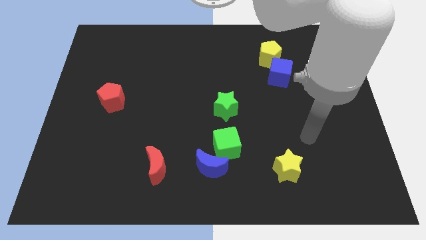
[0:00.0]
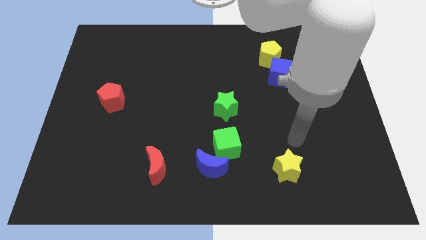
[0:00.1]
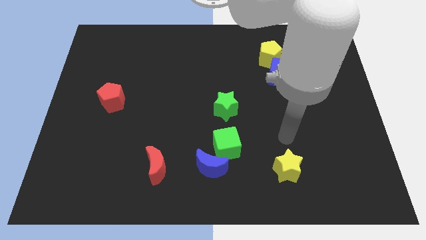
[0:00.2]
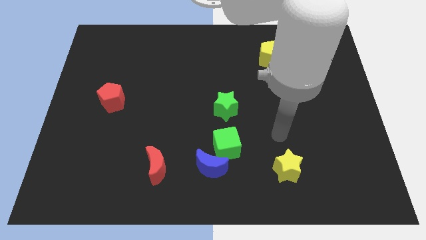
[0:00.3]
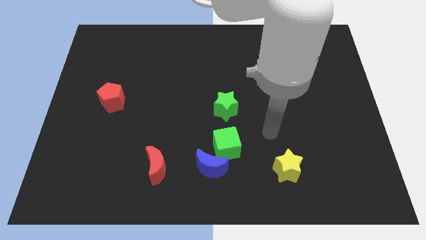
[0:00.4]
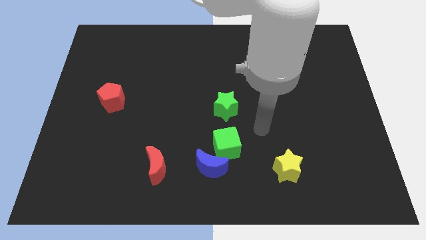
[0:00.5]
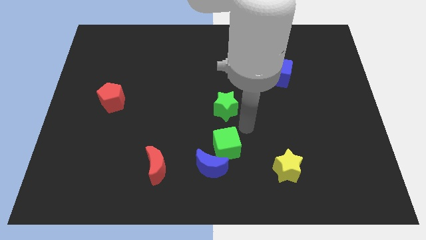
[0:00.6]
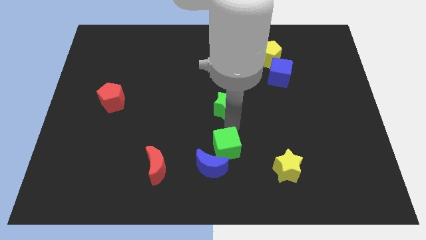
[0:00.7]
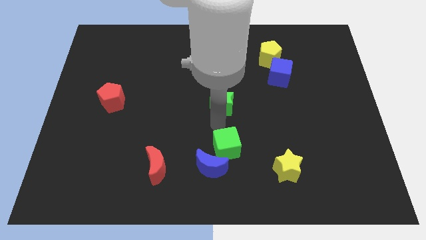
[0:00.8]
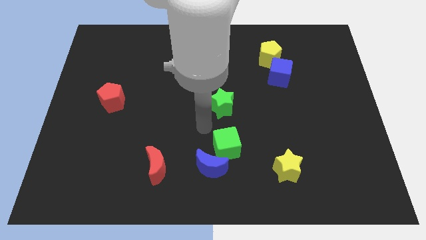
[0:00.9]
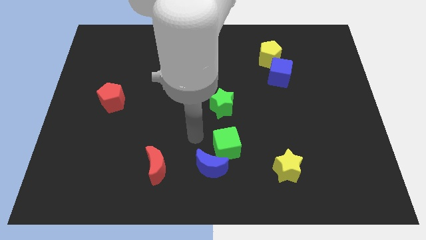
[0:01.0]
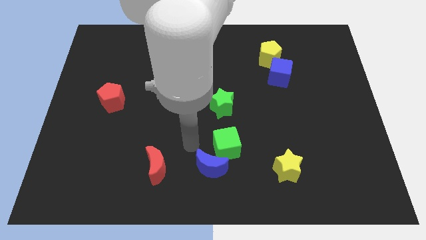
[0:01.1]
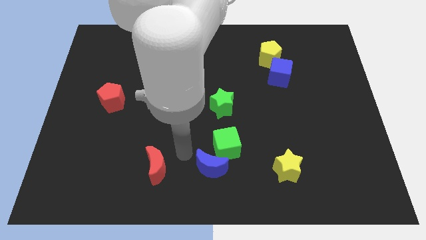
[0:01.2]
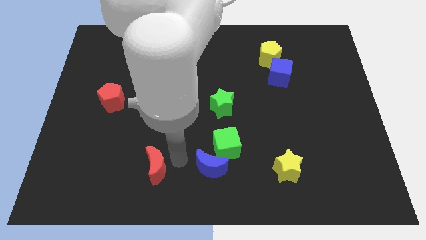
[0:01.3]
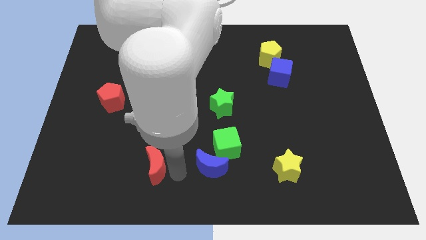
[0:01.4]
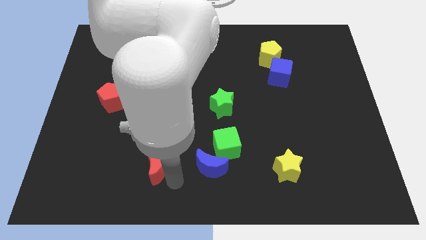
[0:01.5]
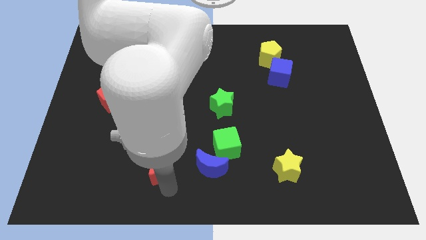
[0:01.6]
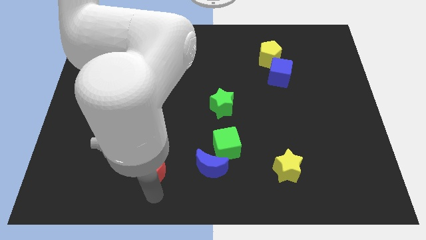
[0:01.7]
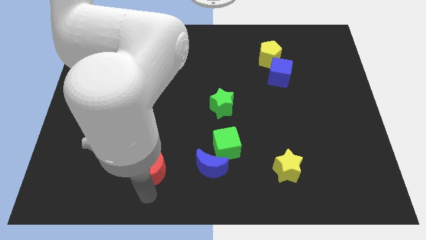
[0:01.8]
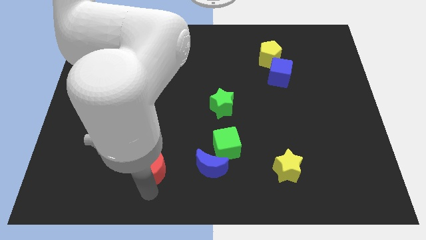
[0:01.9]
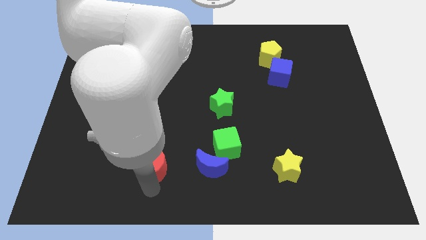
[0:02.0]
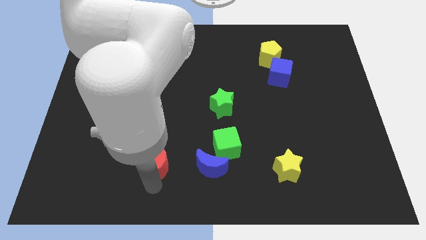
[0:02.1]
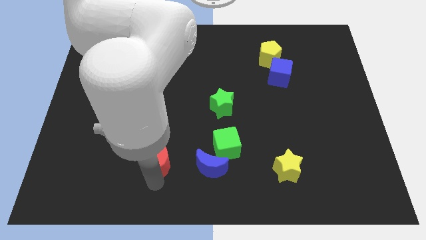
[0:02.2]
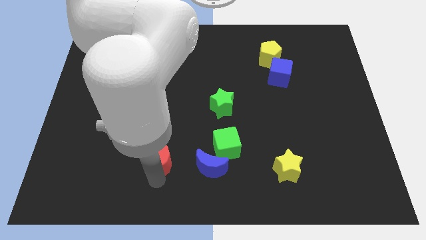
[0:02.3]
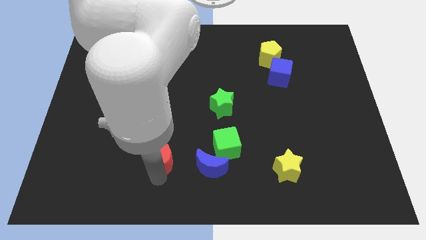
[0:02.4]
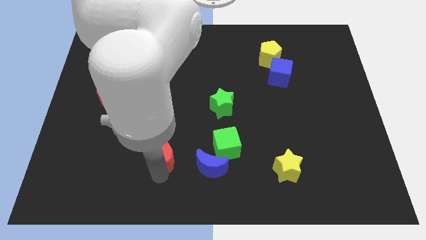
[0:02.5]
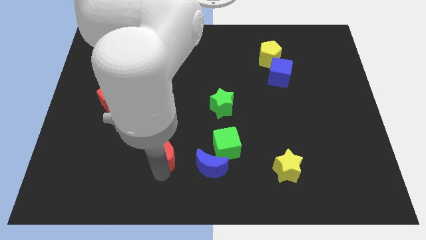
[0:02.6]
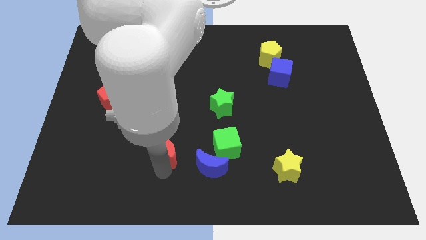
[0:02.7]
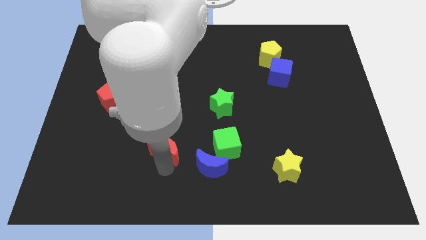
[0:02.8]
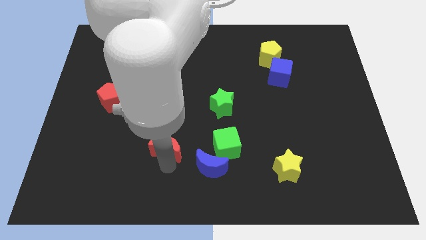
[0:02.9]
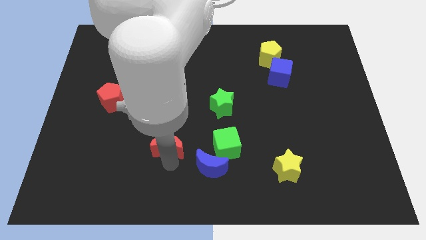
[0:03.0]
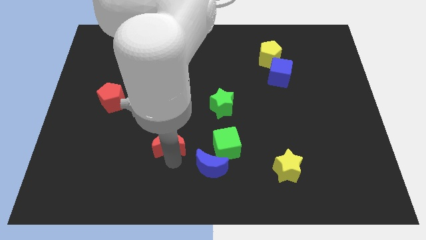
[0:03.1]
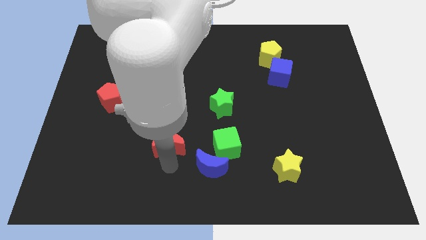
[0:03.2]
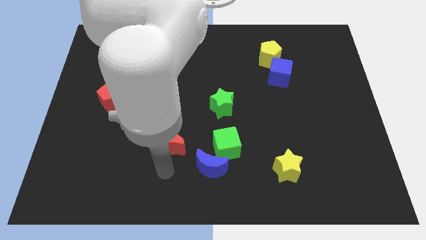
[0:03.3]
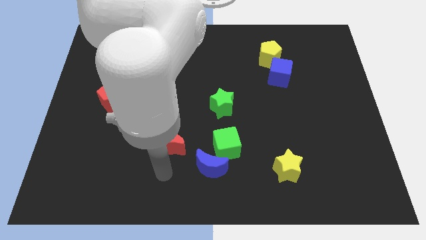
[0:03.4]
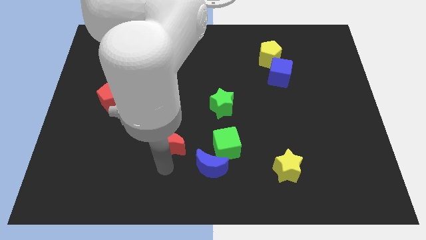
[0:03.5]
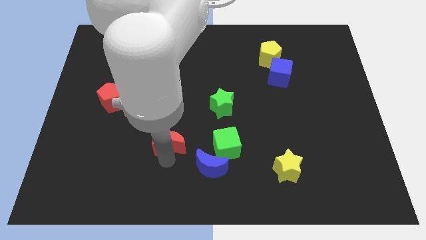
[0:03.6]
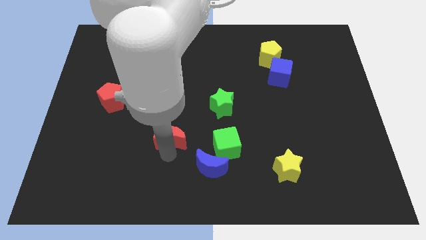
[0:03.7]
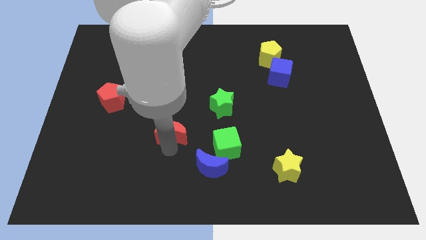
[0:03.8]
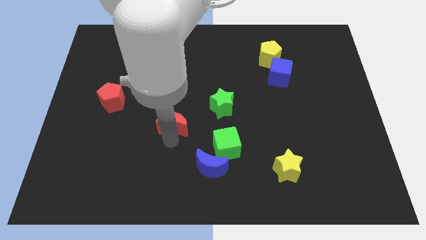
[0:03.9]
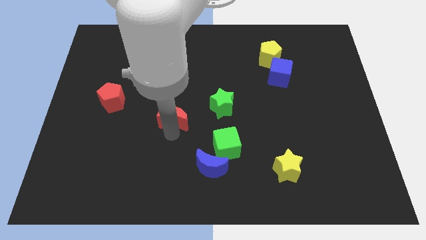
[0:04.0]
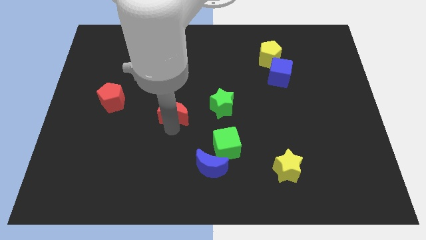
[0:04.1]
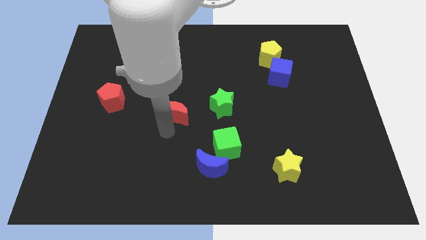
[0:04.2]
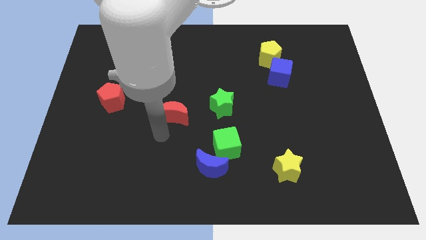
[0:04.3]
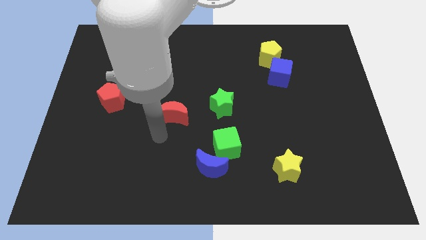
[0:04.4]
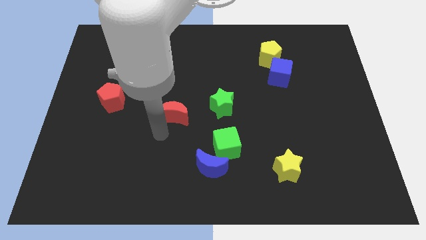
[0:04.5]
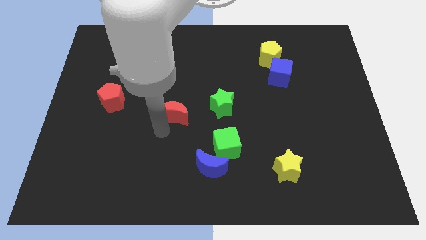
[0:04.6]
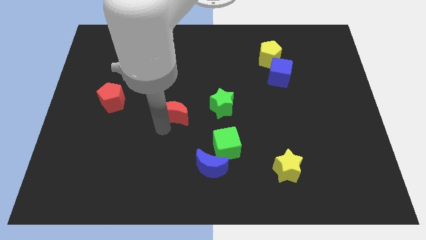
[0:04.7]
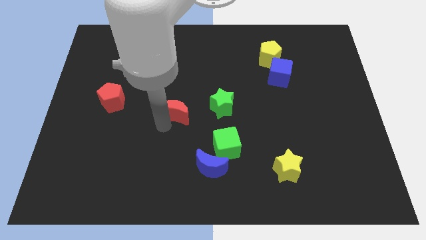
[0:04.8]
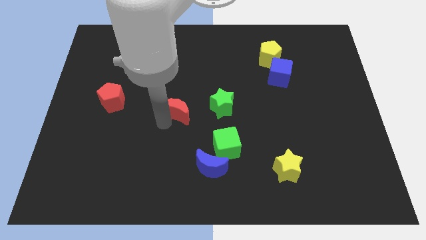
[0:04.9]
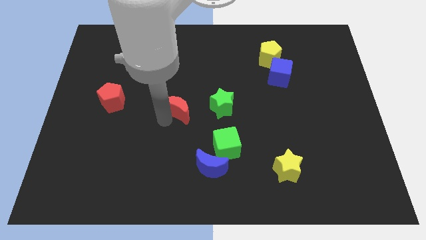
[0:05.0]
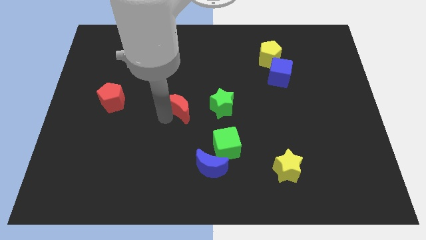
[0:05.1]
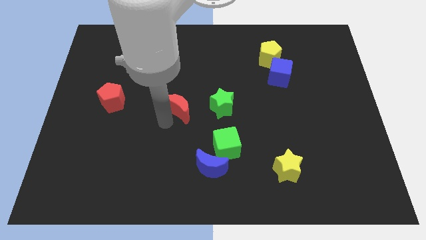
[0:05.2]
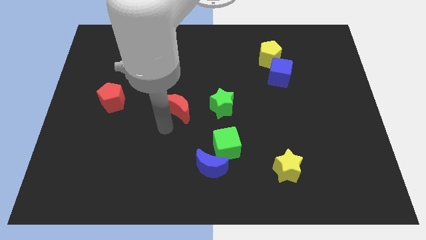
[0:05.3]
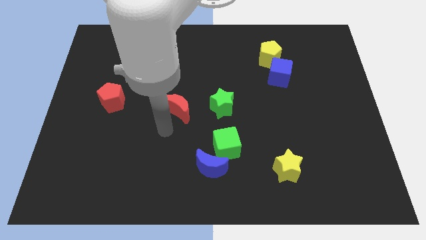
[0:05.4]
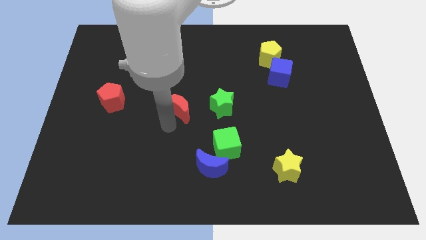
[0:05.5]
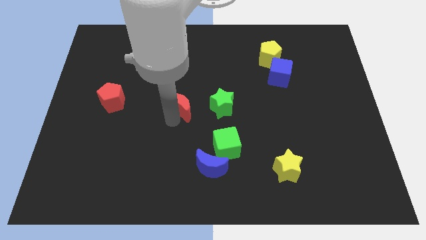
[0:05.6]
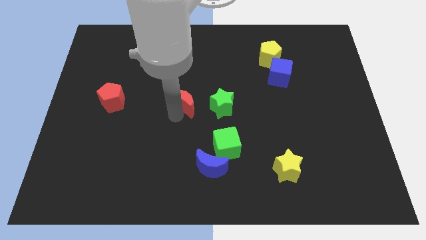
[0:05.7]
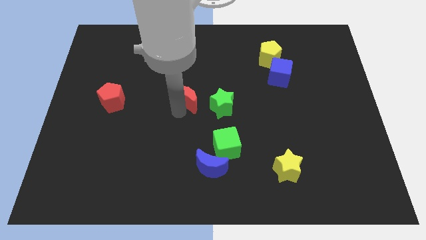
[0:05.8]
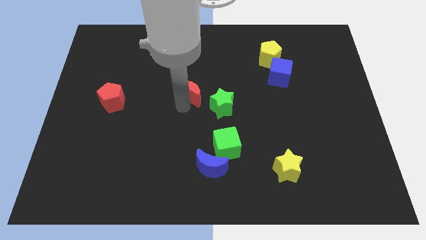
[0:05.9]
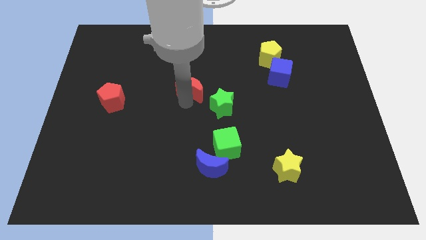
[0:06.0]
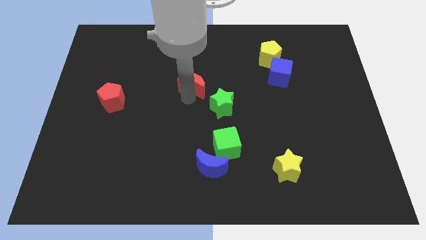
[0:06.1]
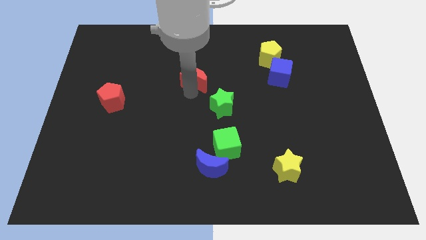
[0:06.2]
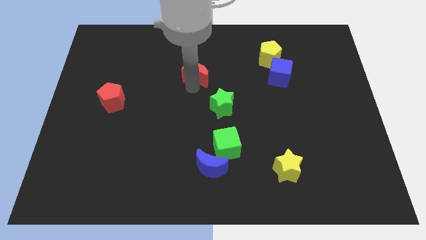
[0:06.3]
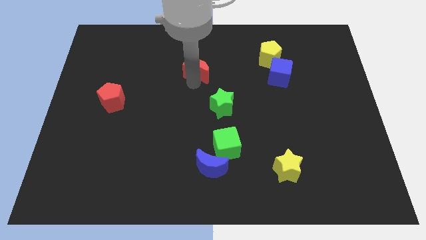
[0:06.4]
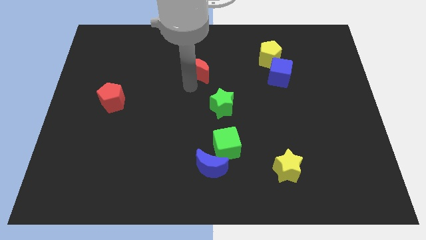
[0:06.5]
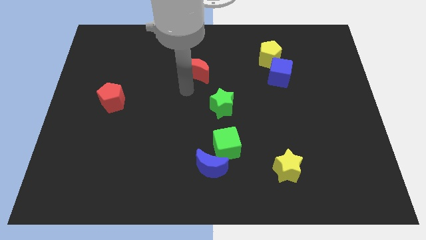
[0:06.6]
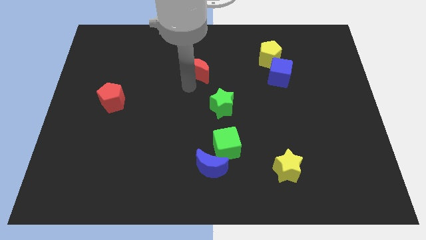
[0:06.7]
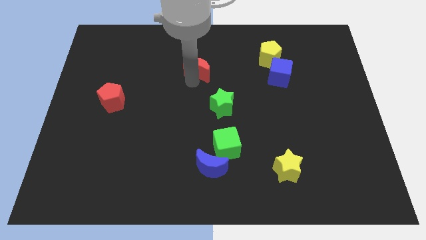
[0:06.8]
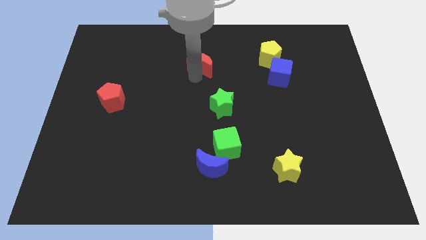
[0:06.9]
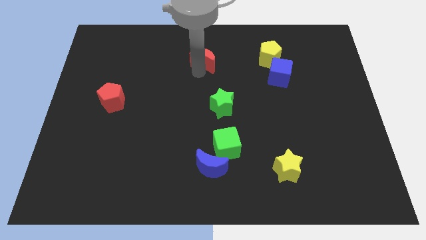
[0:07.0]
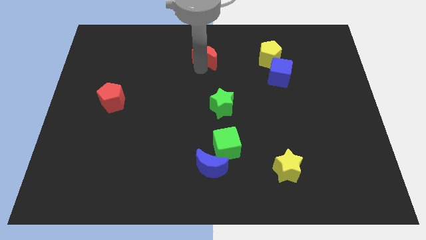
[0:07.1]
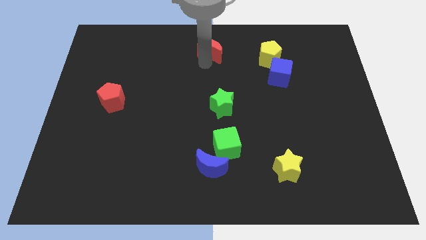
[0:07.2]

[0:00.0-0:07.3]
put the red moon to the top side
